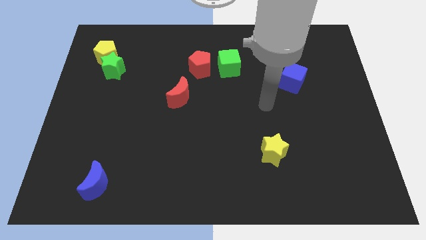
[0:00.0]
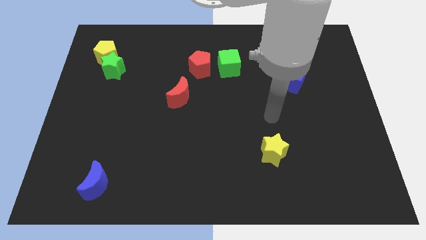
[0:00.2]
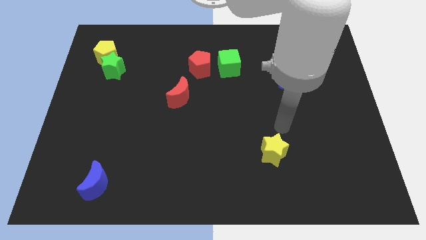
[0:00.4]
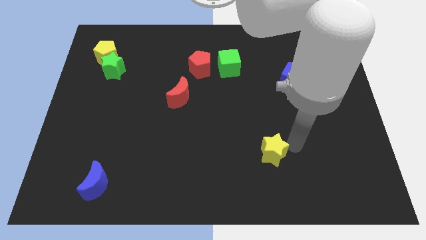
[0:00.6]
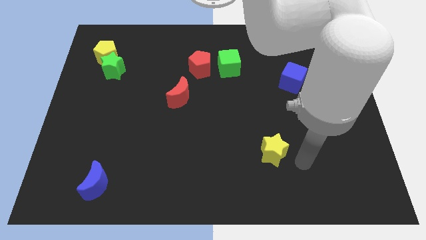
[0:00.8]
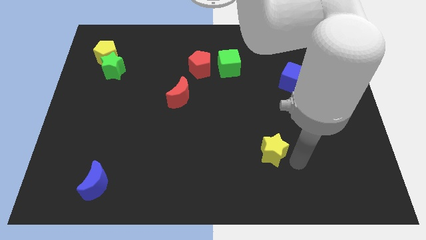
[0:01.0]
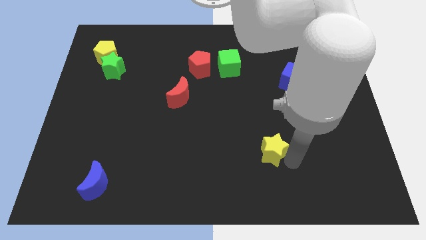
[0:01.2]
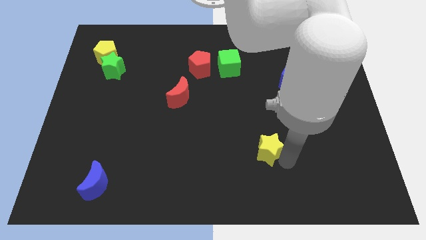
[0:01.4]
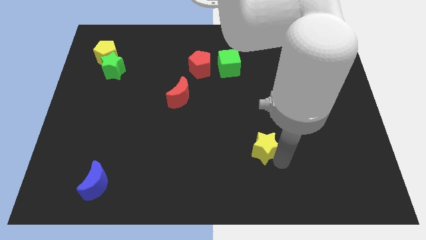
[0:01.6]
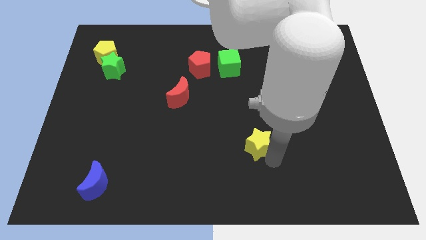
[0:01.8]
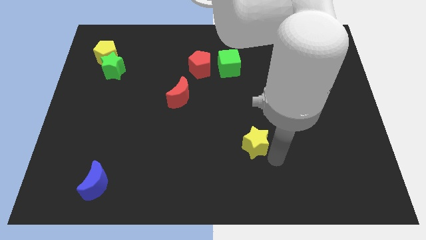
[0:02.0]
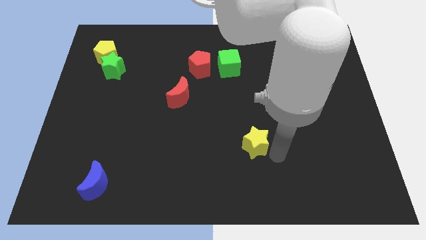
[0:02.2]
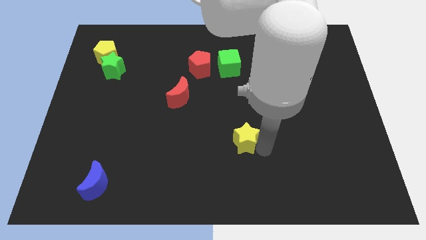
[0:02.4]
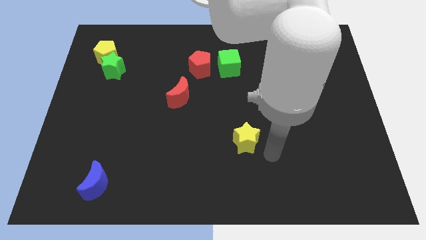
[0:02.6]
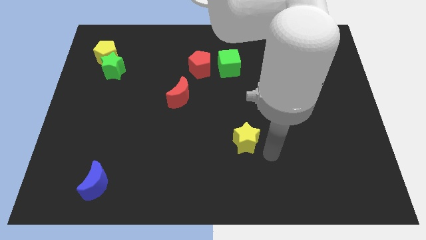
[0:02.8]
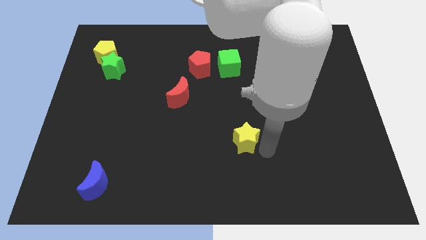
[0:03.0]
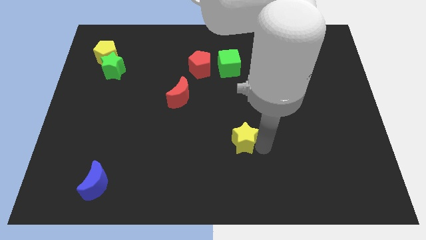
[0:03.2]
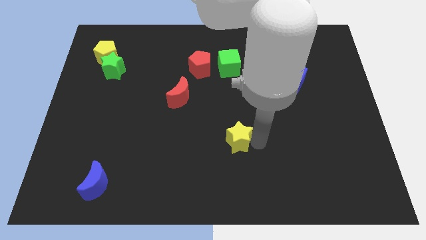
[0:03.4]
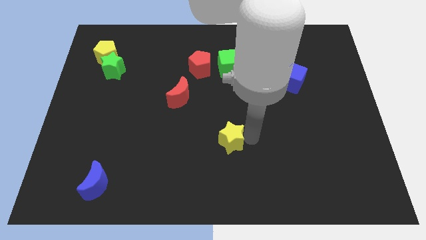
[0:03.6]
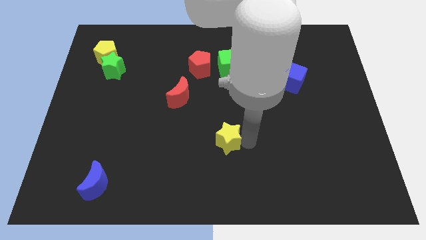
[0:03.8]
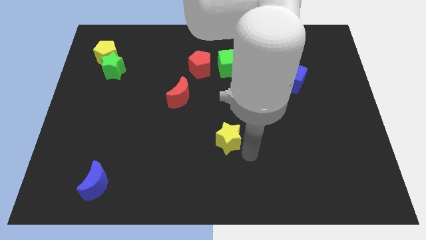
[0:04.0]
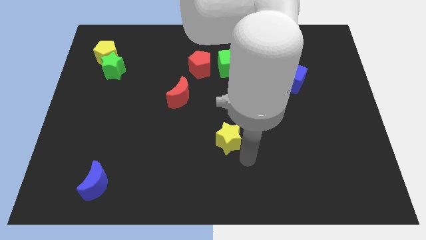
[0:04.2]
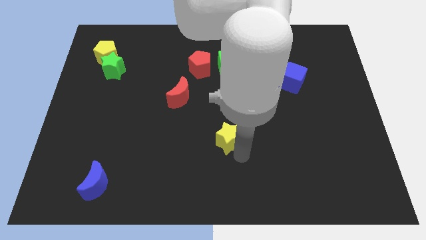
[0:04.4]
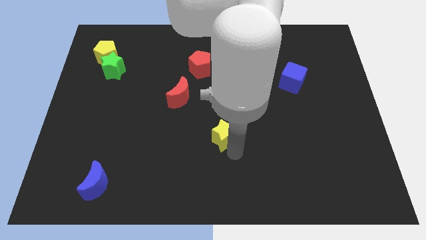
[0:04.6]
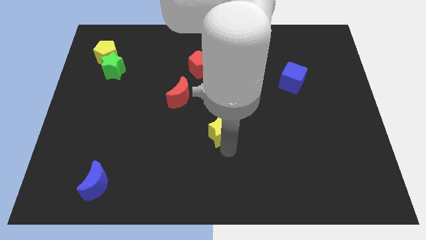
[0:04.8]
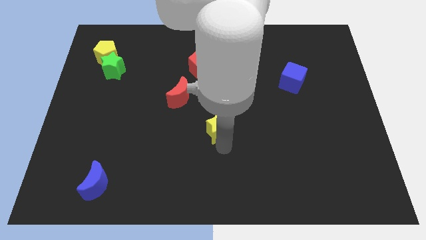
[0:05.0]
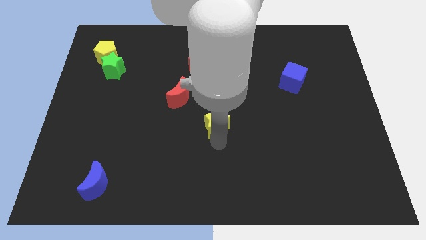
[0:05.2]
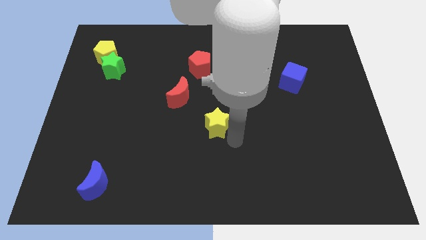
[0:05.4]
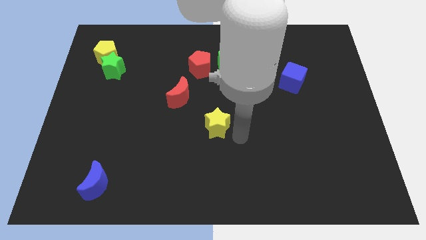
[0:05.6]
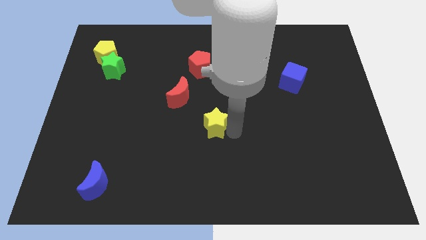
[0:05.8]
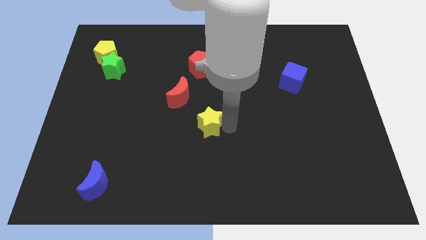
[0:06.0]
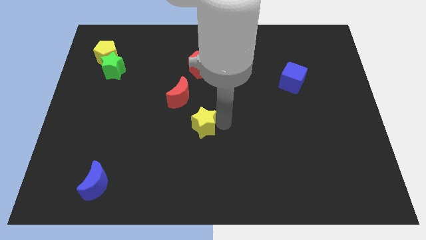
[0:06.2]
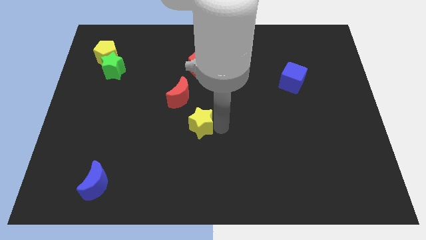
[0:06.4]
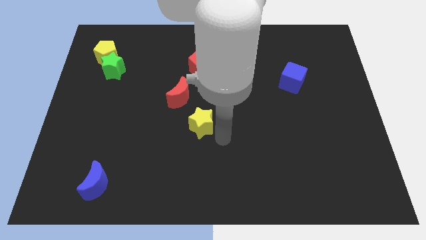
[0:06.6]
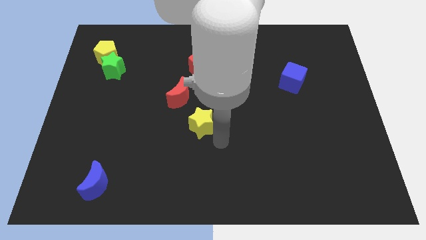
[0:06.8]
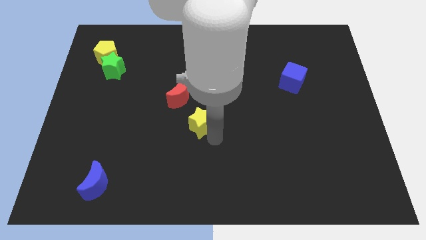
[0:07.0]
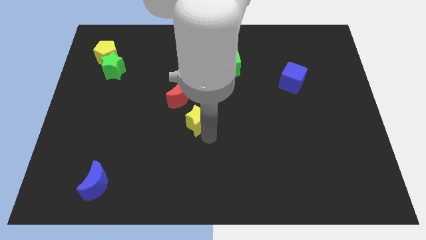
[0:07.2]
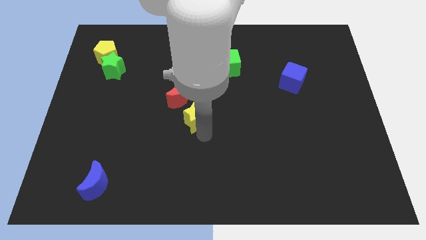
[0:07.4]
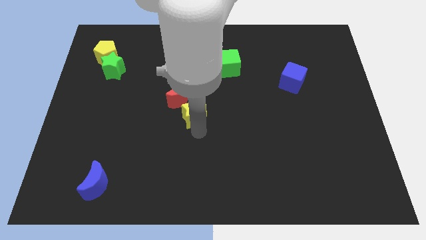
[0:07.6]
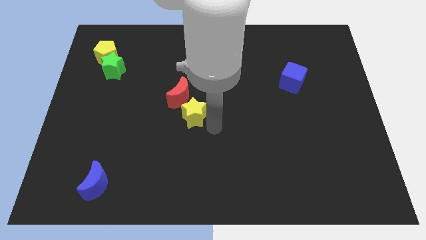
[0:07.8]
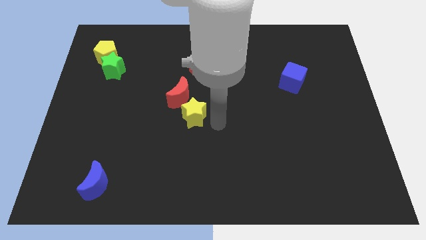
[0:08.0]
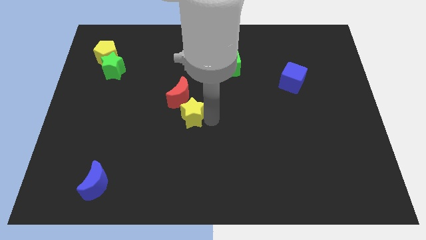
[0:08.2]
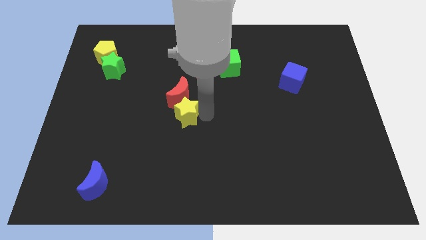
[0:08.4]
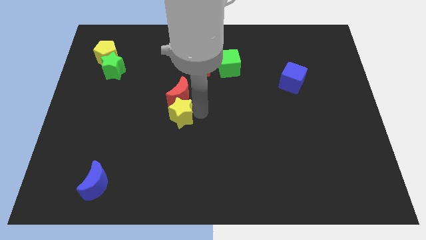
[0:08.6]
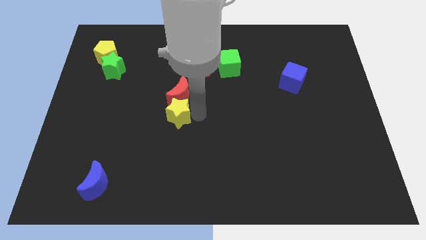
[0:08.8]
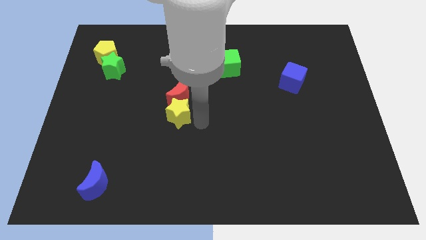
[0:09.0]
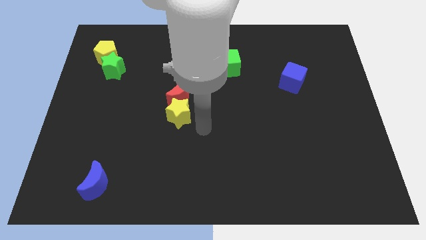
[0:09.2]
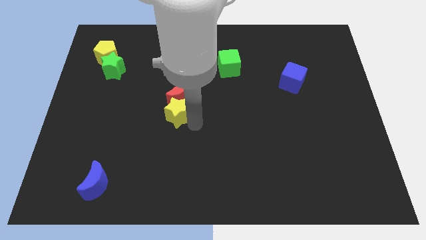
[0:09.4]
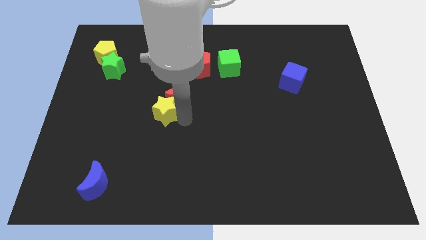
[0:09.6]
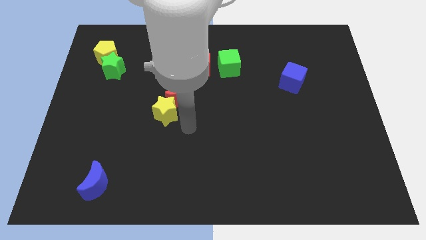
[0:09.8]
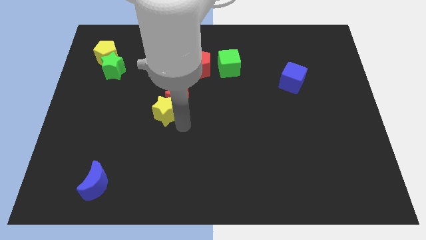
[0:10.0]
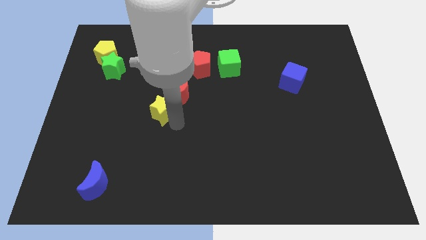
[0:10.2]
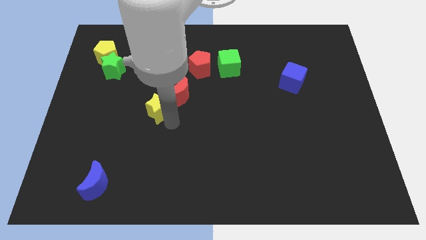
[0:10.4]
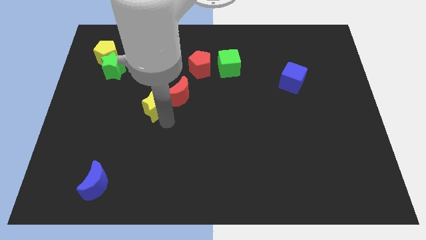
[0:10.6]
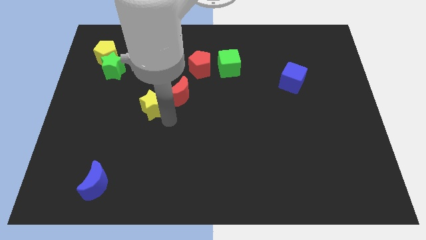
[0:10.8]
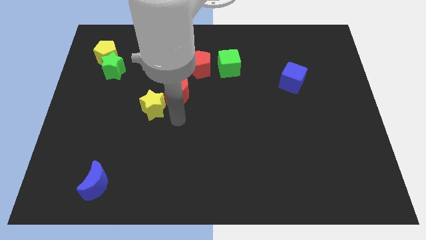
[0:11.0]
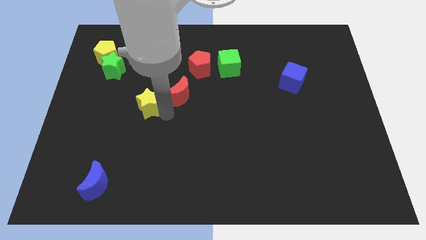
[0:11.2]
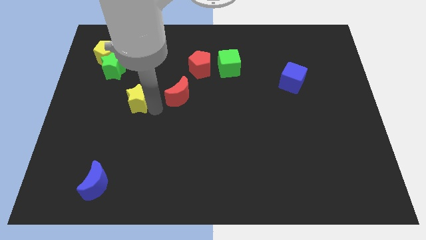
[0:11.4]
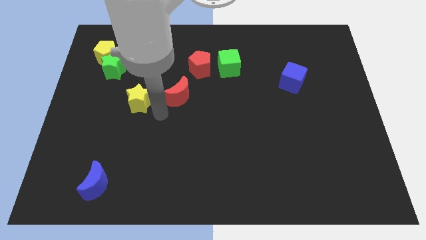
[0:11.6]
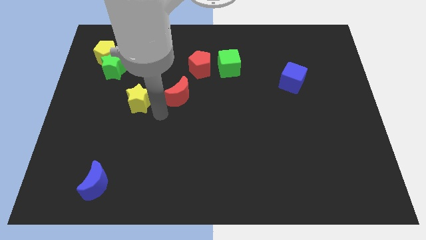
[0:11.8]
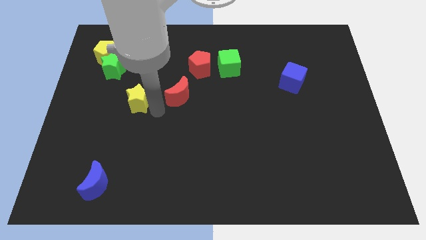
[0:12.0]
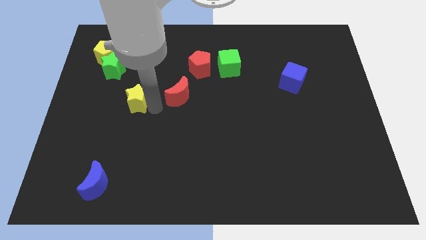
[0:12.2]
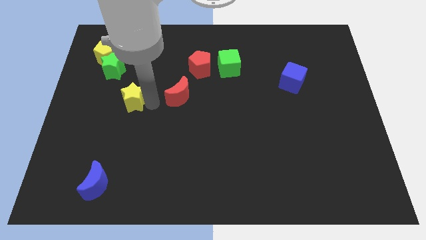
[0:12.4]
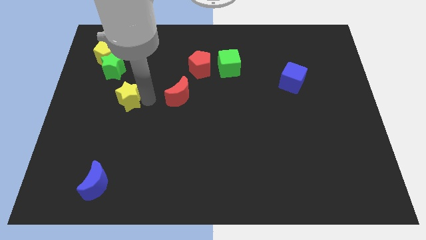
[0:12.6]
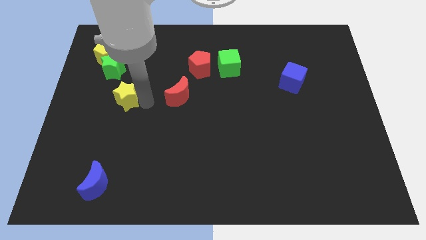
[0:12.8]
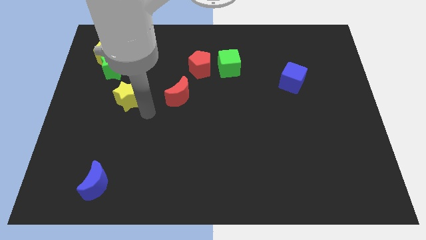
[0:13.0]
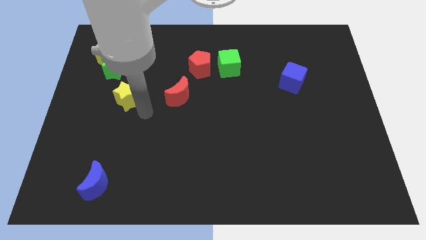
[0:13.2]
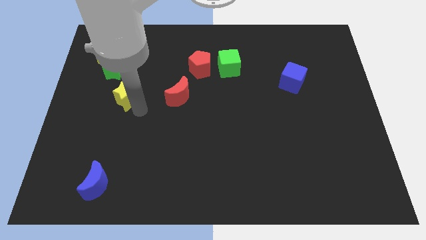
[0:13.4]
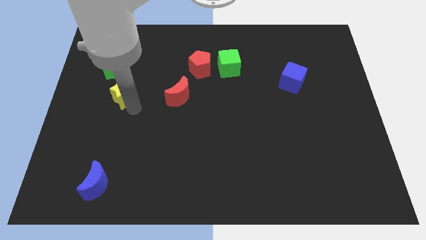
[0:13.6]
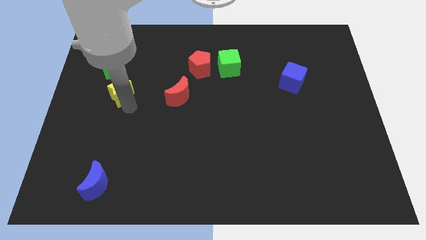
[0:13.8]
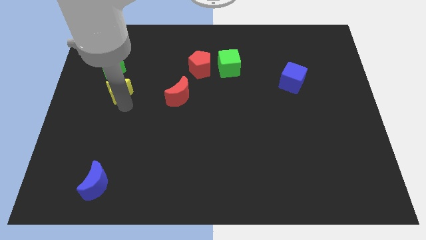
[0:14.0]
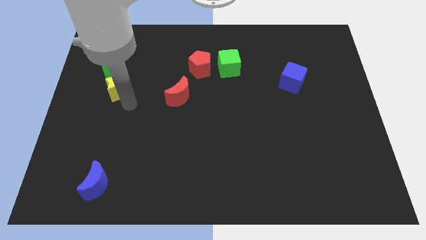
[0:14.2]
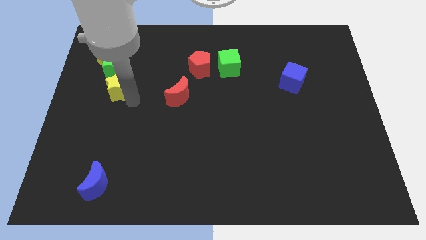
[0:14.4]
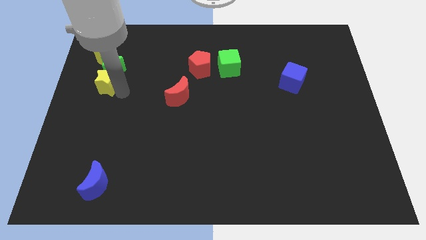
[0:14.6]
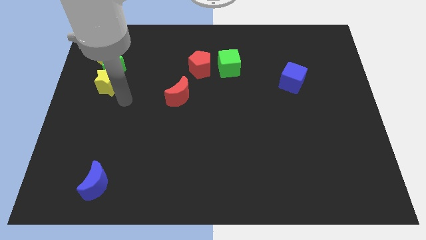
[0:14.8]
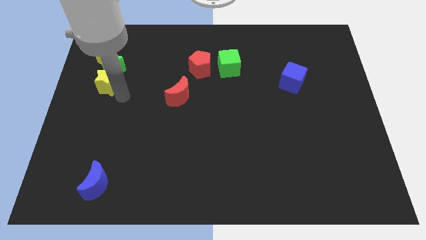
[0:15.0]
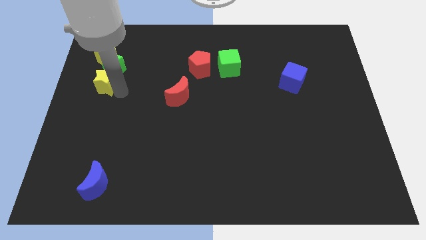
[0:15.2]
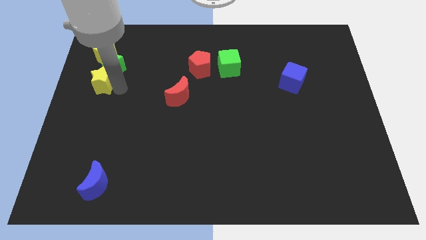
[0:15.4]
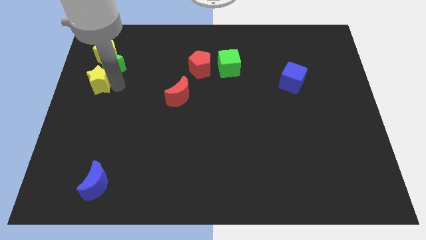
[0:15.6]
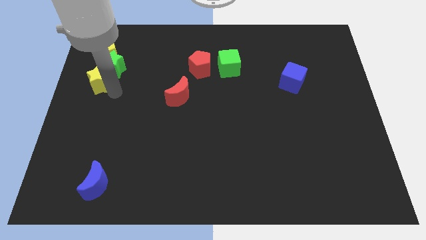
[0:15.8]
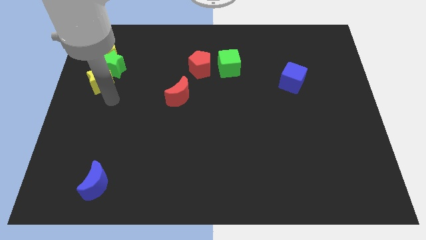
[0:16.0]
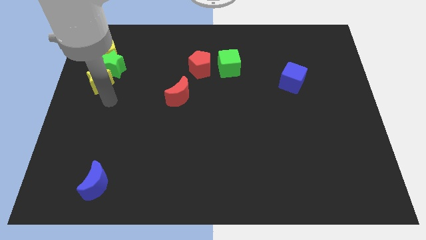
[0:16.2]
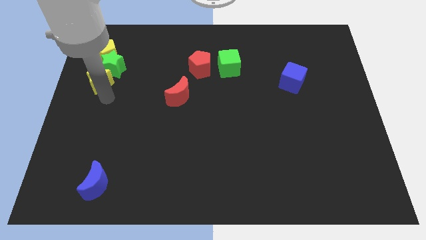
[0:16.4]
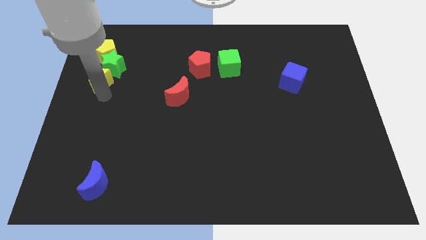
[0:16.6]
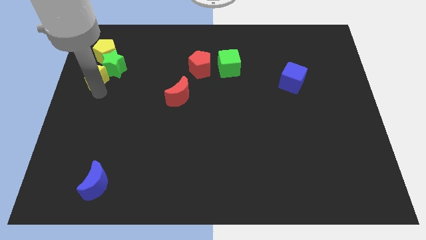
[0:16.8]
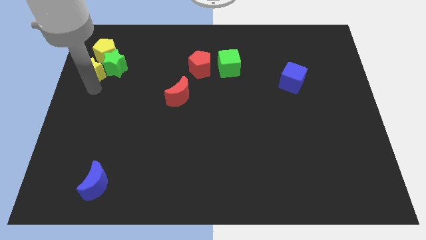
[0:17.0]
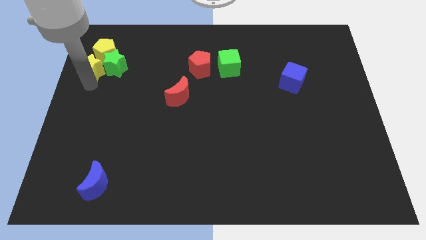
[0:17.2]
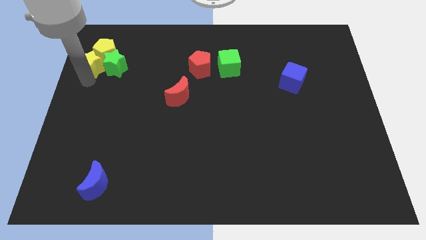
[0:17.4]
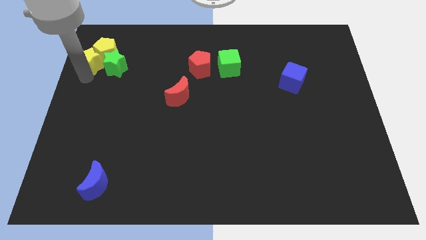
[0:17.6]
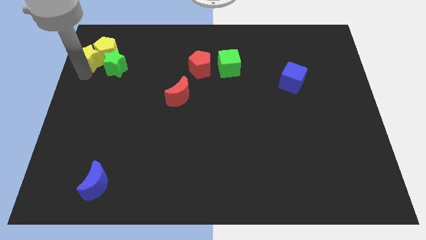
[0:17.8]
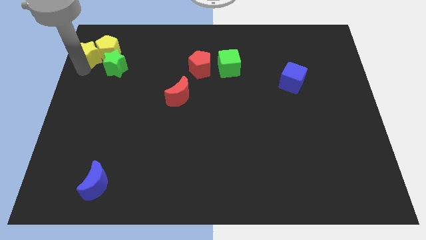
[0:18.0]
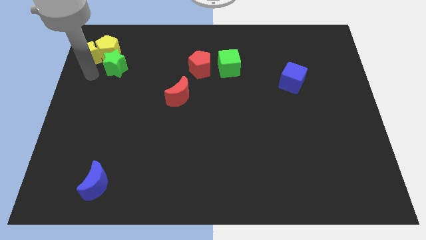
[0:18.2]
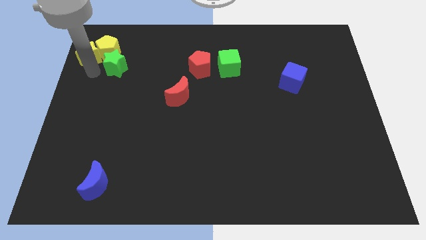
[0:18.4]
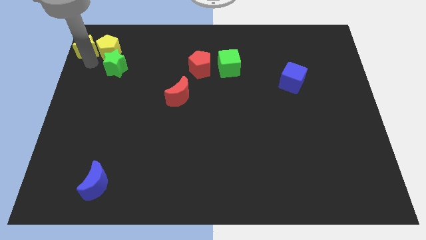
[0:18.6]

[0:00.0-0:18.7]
put the yellow star to the top left
